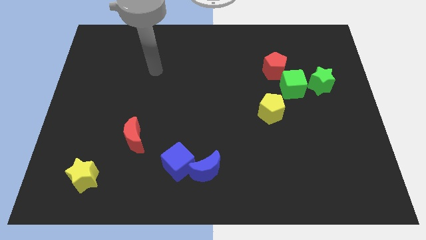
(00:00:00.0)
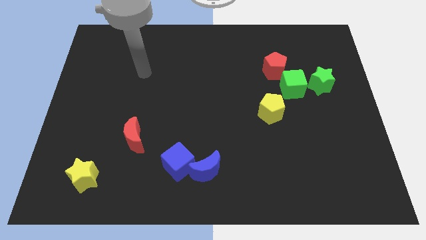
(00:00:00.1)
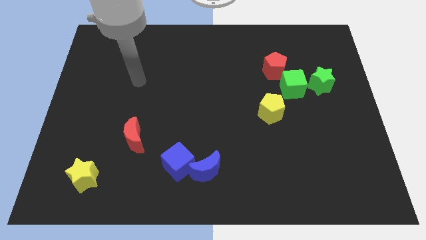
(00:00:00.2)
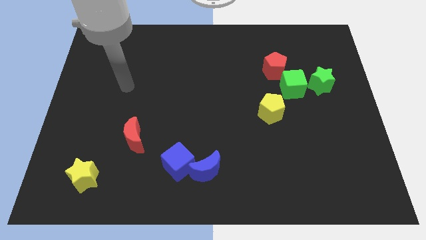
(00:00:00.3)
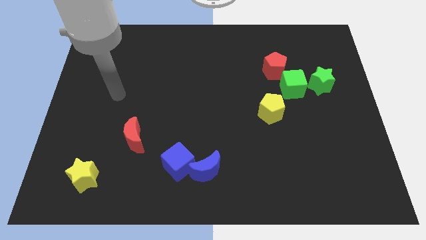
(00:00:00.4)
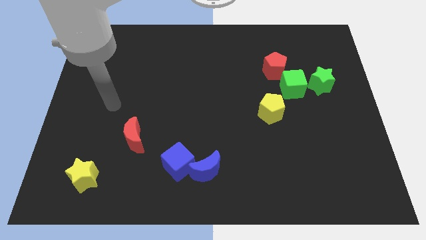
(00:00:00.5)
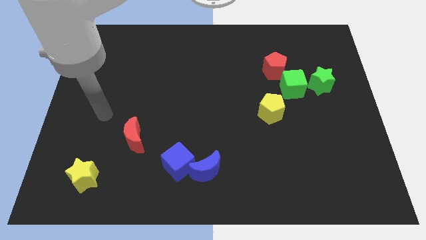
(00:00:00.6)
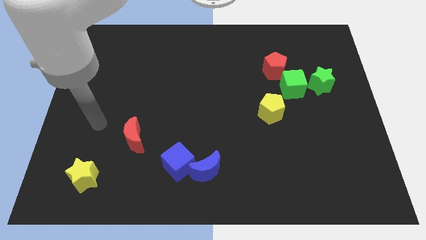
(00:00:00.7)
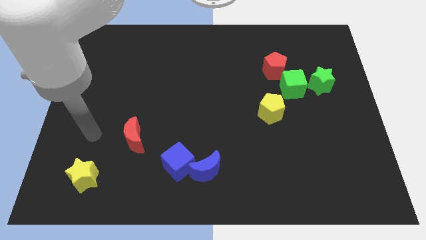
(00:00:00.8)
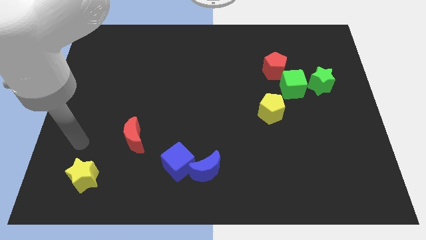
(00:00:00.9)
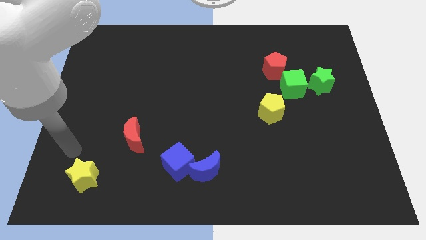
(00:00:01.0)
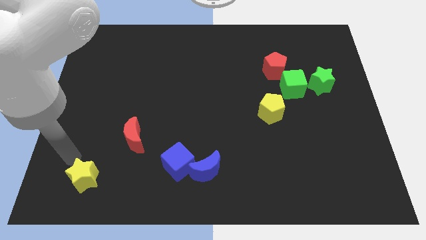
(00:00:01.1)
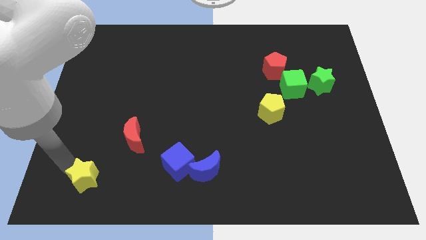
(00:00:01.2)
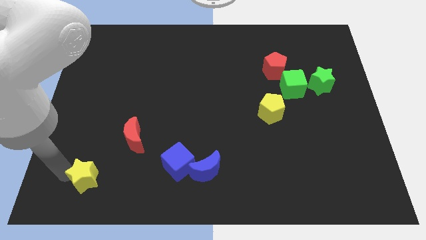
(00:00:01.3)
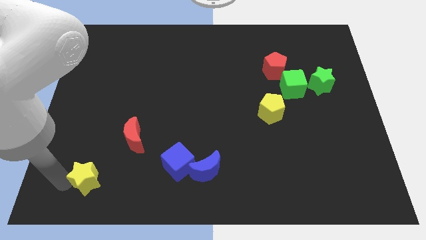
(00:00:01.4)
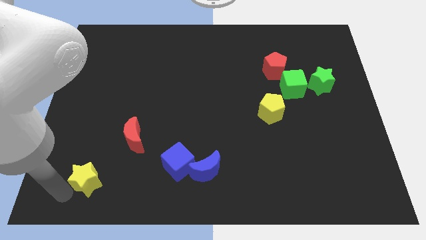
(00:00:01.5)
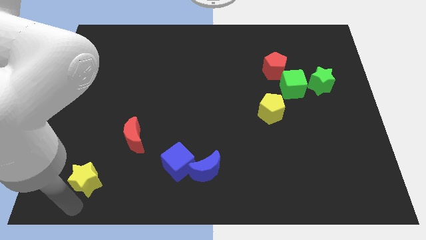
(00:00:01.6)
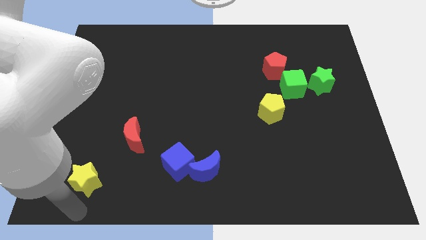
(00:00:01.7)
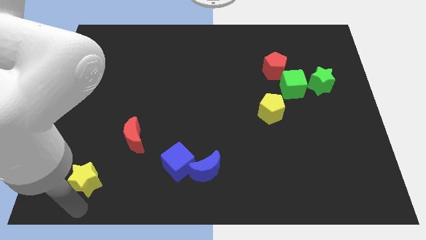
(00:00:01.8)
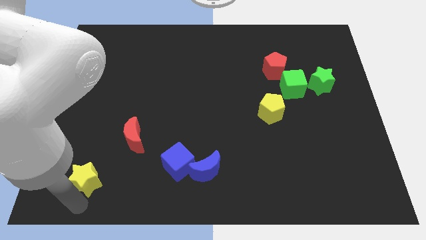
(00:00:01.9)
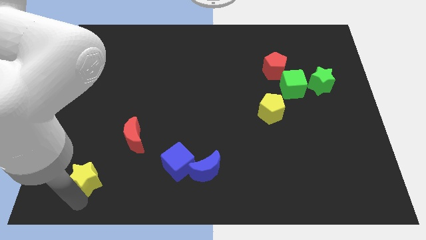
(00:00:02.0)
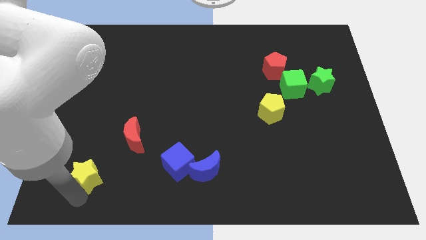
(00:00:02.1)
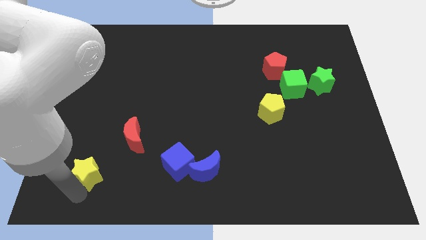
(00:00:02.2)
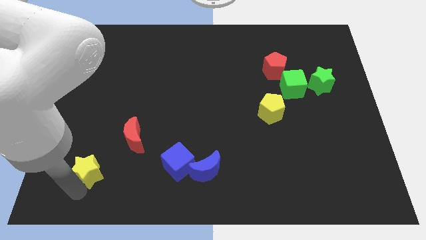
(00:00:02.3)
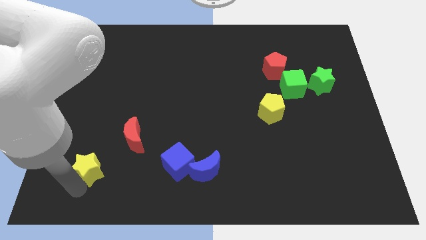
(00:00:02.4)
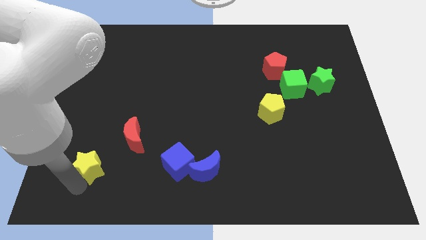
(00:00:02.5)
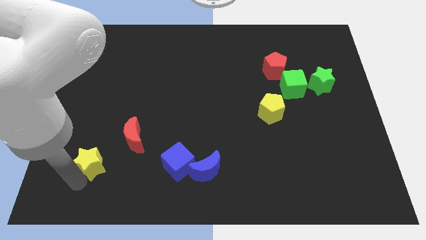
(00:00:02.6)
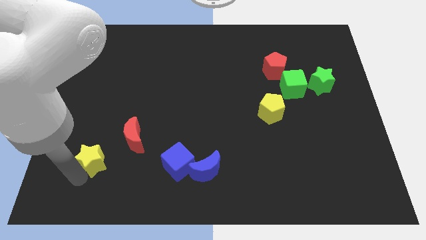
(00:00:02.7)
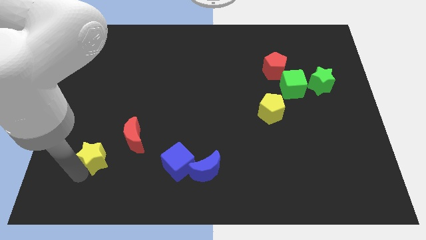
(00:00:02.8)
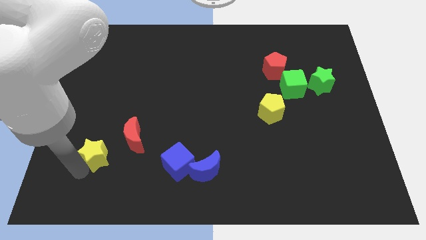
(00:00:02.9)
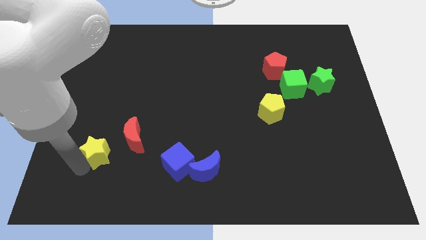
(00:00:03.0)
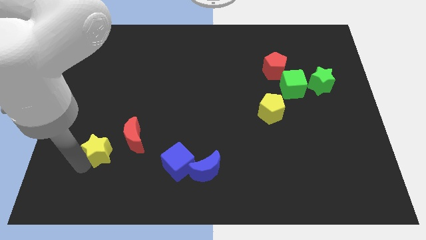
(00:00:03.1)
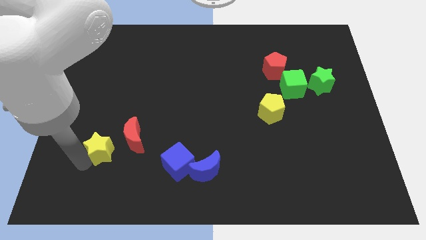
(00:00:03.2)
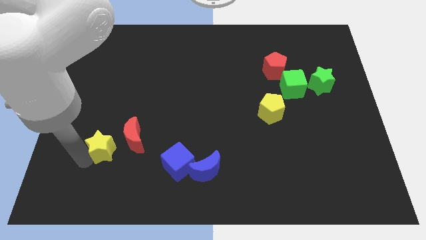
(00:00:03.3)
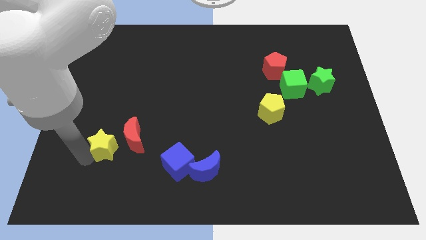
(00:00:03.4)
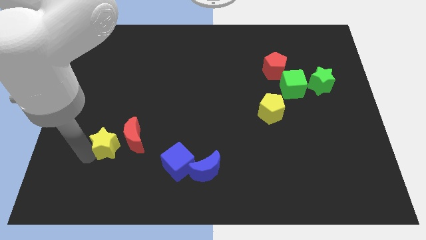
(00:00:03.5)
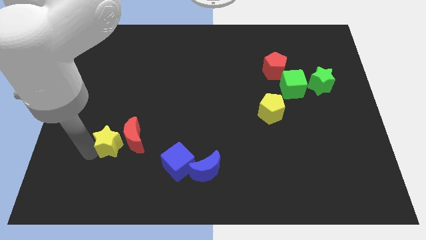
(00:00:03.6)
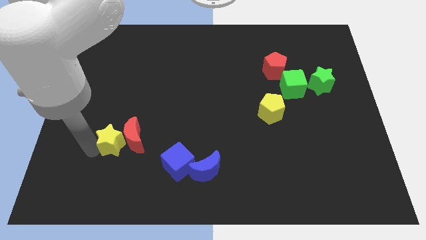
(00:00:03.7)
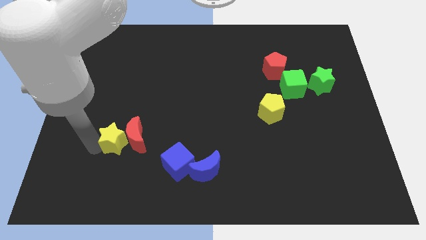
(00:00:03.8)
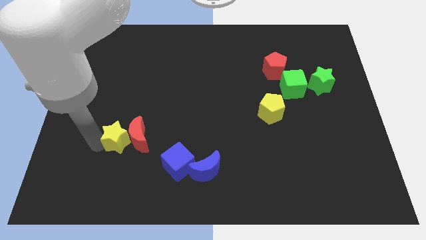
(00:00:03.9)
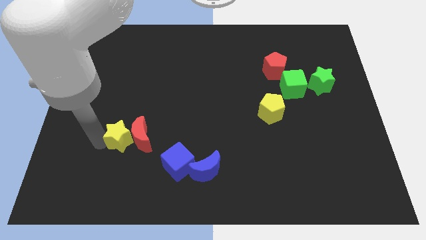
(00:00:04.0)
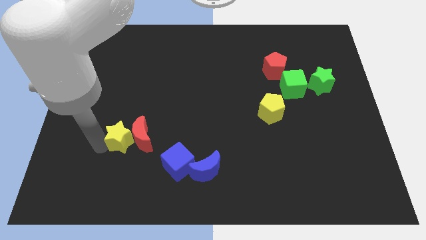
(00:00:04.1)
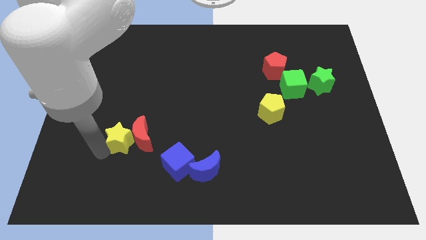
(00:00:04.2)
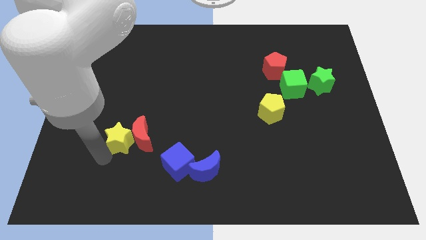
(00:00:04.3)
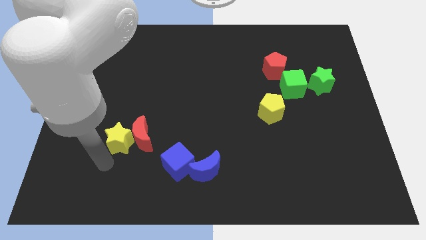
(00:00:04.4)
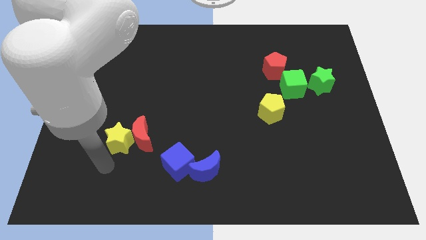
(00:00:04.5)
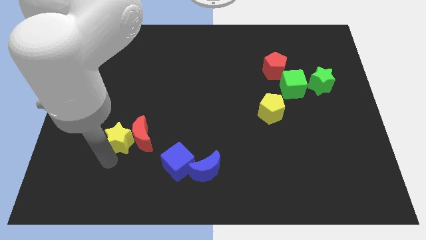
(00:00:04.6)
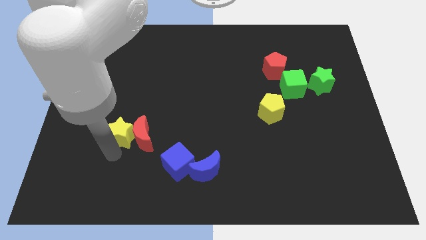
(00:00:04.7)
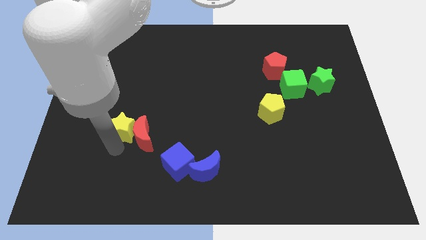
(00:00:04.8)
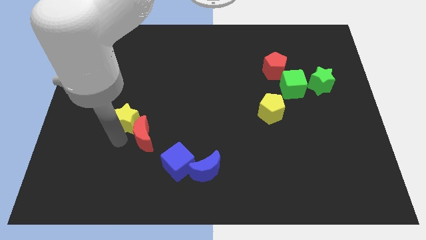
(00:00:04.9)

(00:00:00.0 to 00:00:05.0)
move the yellow star to the top of the red moon

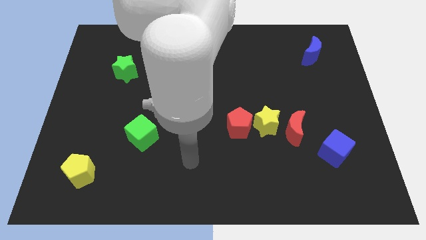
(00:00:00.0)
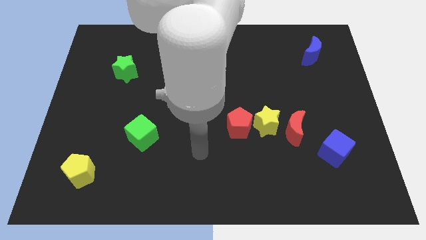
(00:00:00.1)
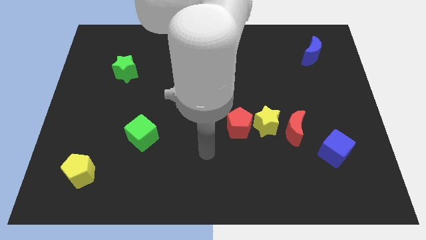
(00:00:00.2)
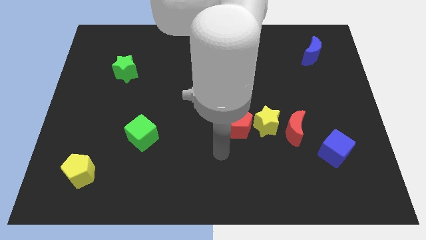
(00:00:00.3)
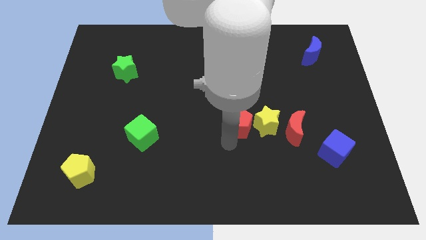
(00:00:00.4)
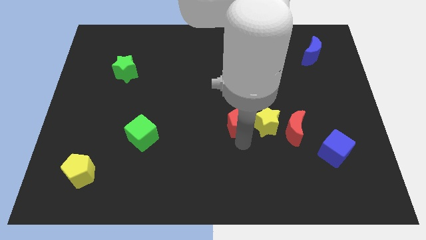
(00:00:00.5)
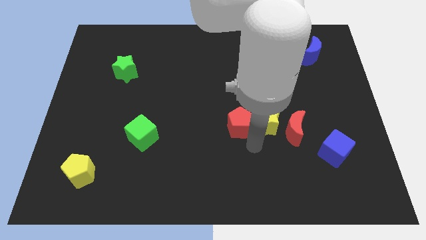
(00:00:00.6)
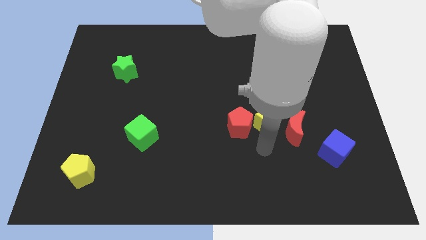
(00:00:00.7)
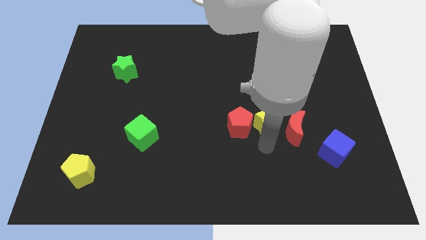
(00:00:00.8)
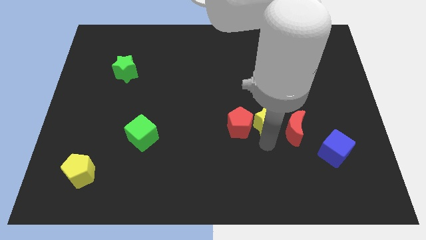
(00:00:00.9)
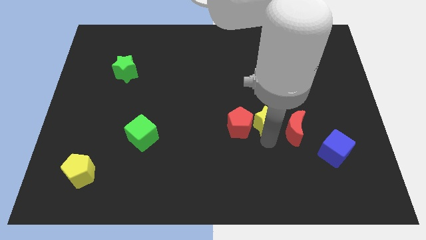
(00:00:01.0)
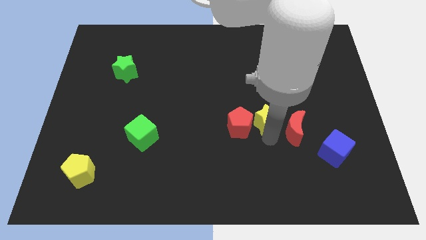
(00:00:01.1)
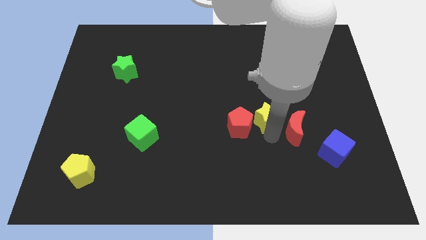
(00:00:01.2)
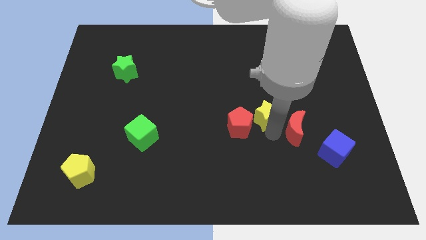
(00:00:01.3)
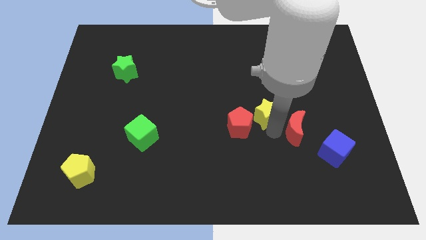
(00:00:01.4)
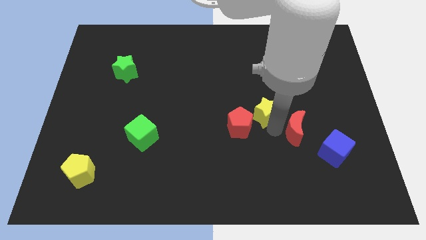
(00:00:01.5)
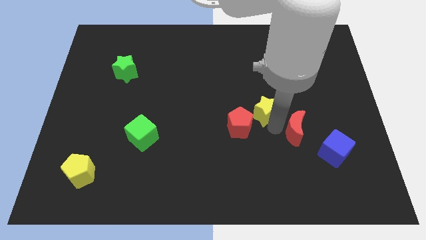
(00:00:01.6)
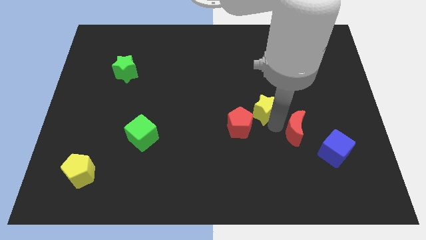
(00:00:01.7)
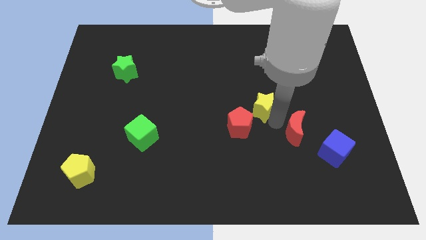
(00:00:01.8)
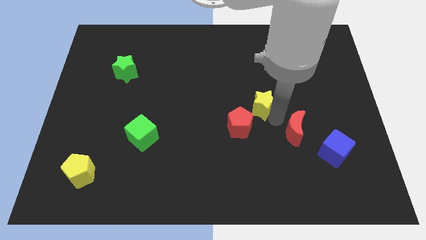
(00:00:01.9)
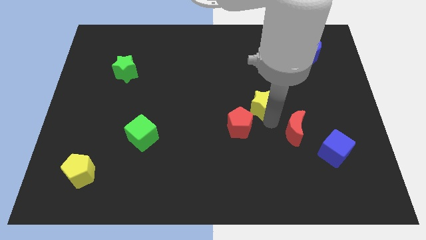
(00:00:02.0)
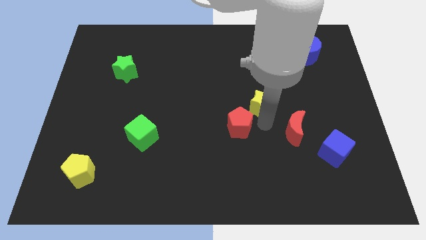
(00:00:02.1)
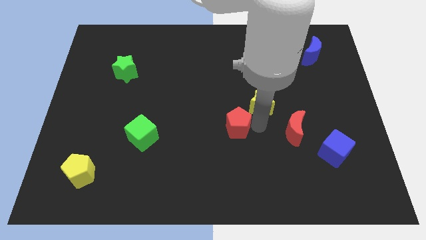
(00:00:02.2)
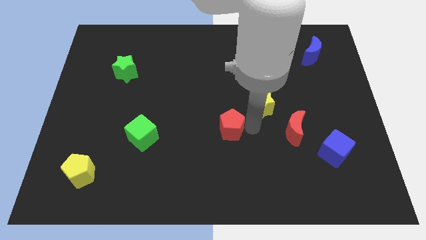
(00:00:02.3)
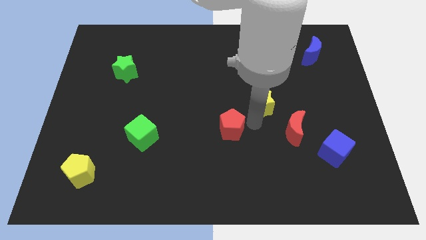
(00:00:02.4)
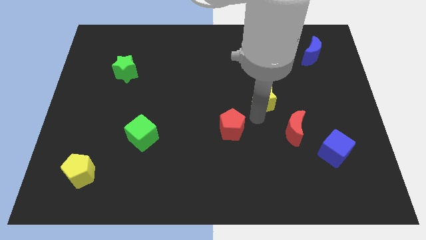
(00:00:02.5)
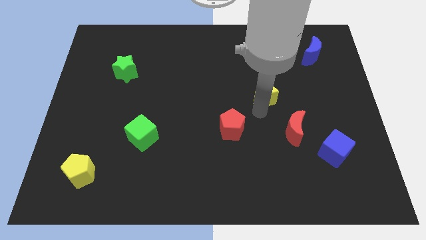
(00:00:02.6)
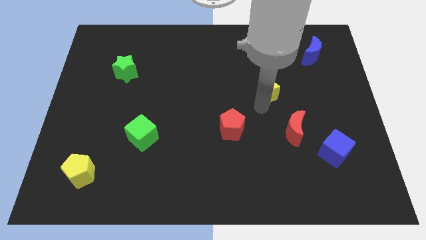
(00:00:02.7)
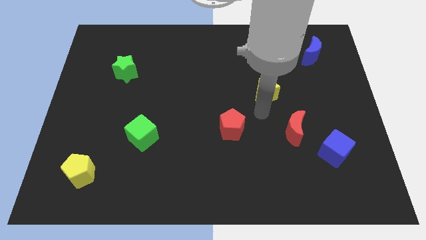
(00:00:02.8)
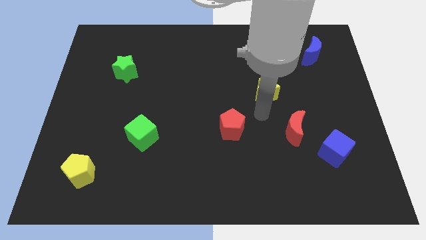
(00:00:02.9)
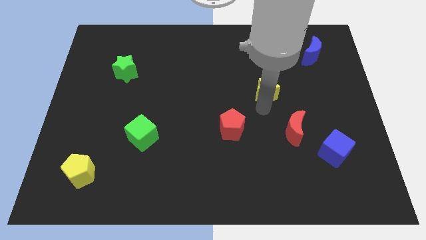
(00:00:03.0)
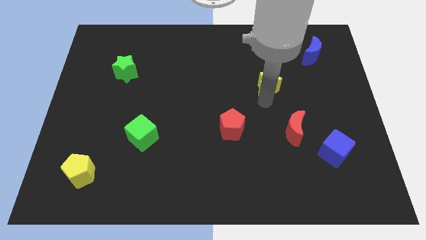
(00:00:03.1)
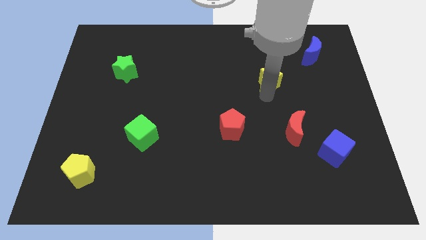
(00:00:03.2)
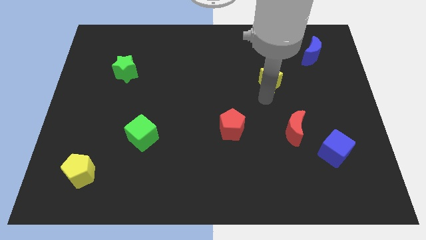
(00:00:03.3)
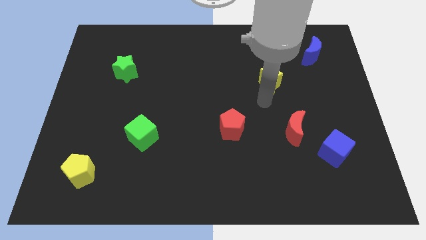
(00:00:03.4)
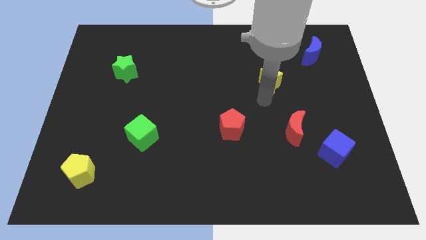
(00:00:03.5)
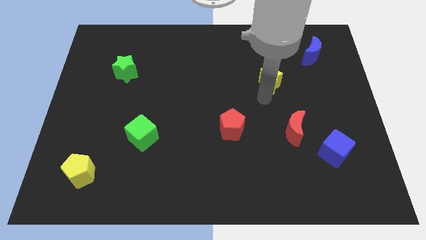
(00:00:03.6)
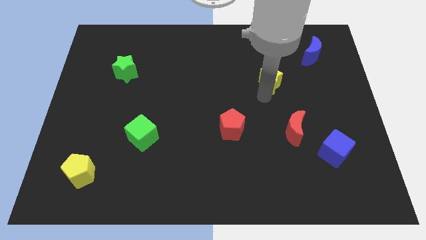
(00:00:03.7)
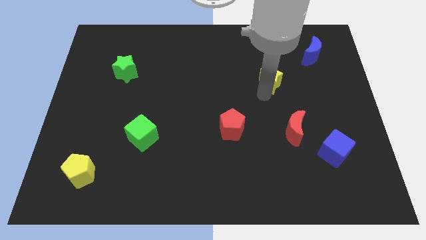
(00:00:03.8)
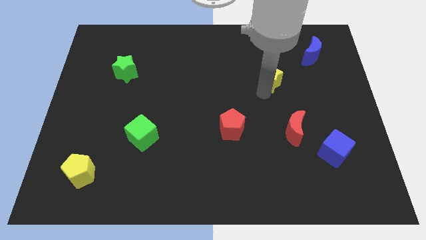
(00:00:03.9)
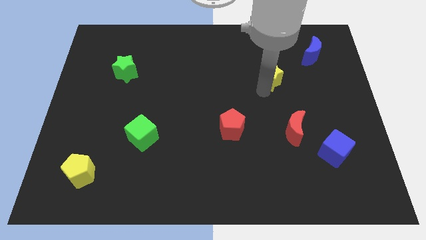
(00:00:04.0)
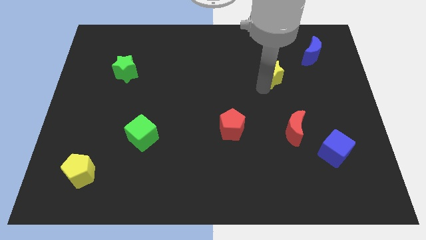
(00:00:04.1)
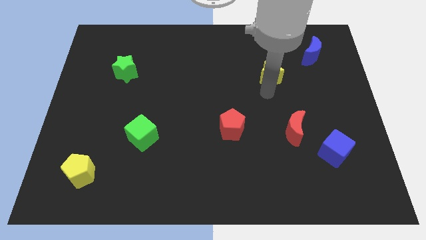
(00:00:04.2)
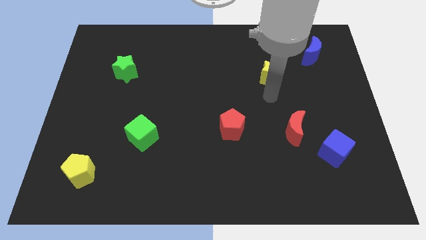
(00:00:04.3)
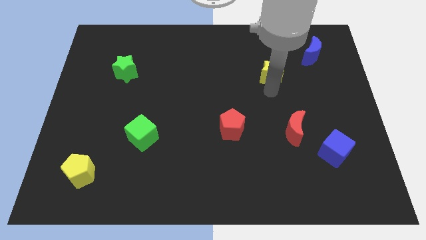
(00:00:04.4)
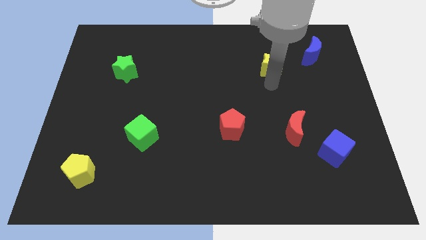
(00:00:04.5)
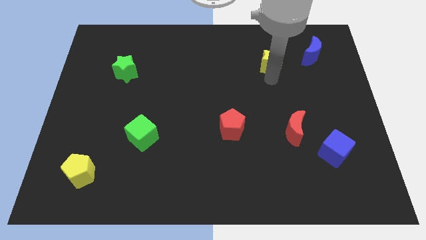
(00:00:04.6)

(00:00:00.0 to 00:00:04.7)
put the yellow star just left of the blue moon
